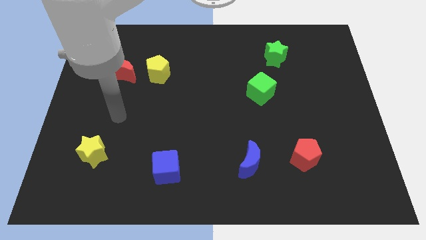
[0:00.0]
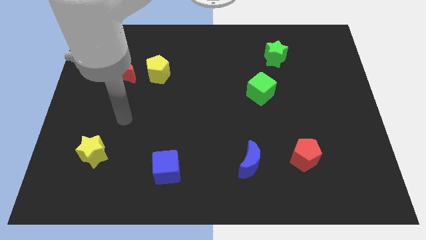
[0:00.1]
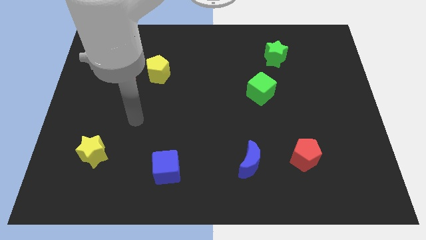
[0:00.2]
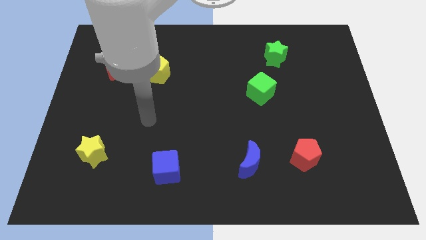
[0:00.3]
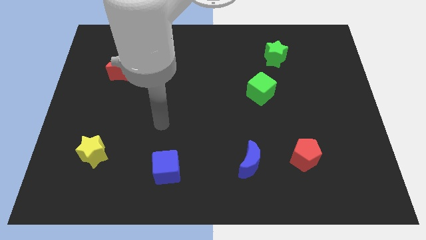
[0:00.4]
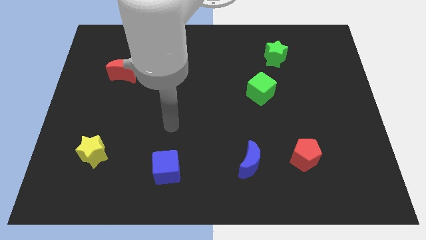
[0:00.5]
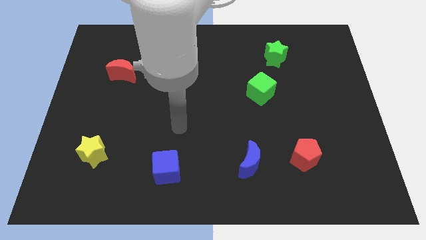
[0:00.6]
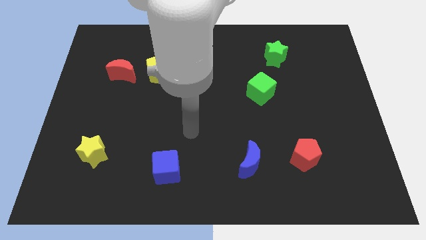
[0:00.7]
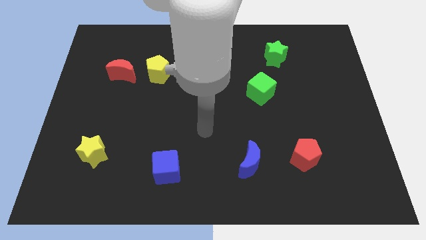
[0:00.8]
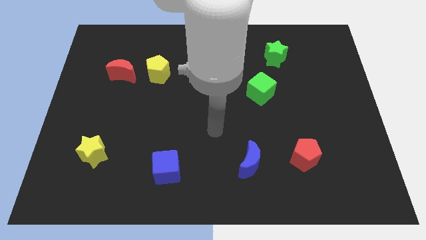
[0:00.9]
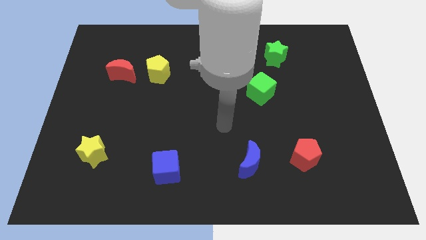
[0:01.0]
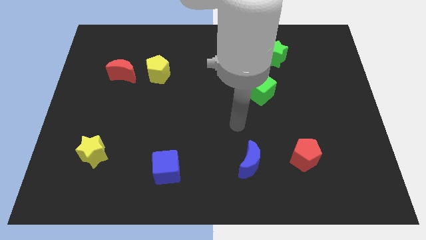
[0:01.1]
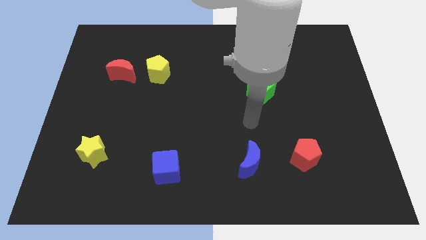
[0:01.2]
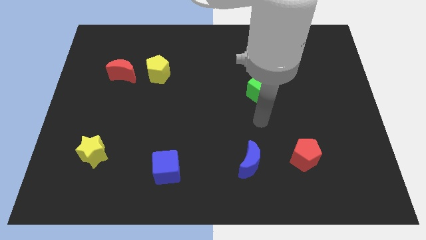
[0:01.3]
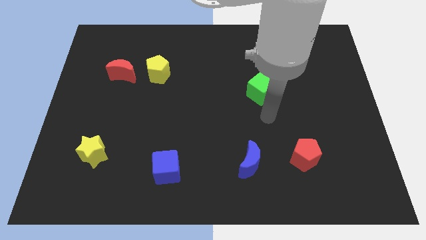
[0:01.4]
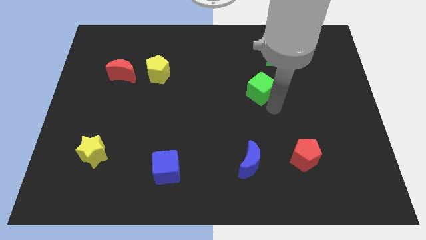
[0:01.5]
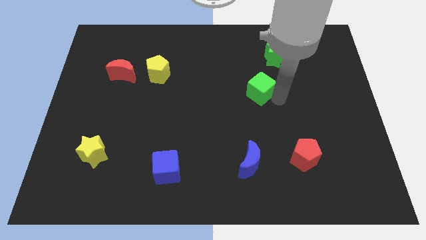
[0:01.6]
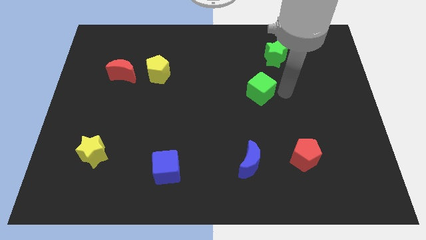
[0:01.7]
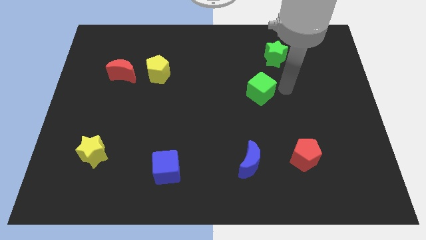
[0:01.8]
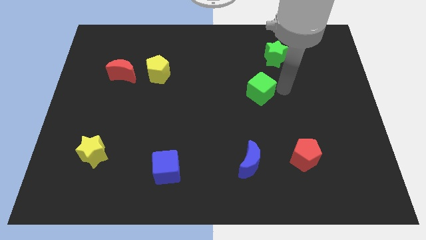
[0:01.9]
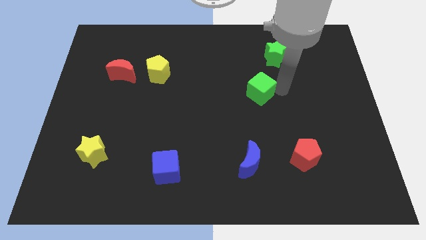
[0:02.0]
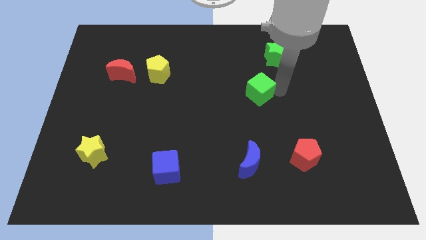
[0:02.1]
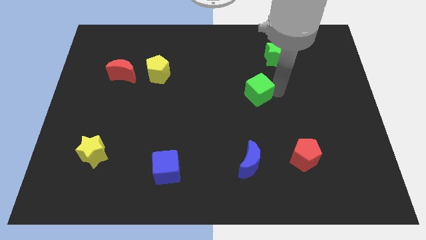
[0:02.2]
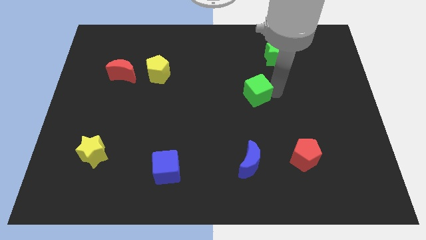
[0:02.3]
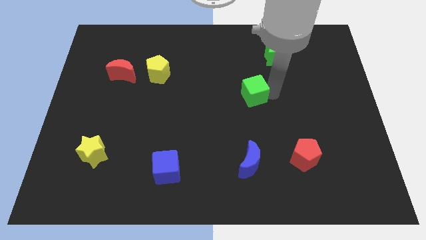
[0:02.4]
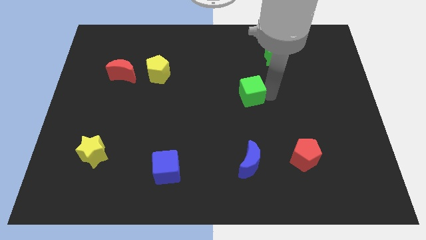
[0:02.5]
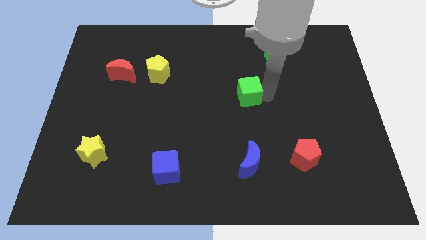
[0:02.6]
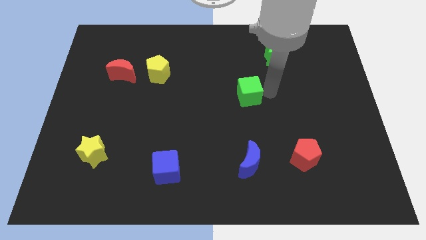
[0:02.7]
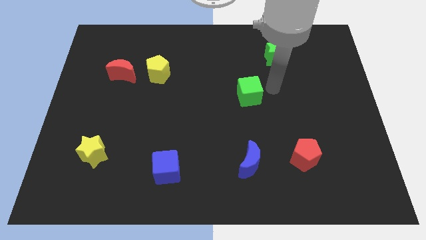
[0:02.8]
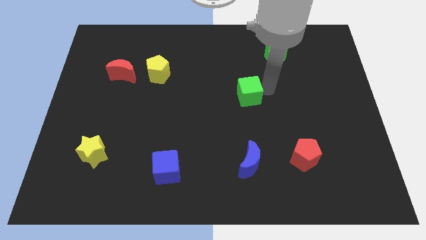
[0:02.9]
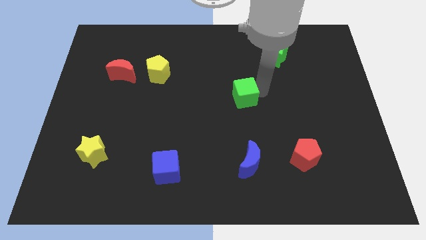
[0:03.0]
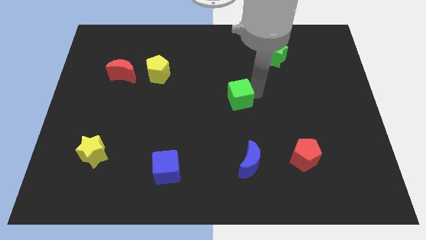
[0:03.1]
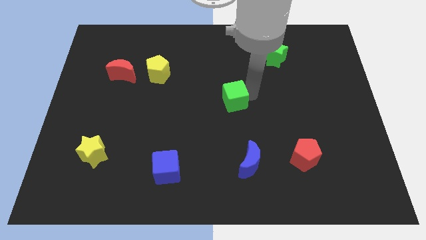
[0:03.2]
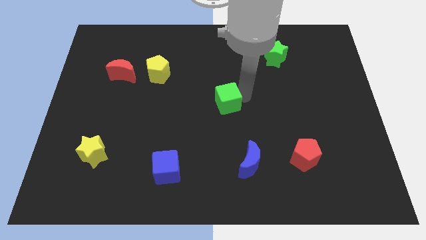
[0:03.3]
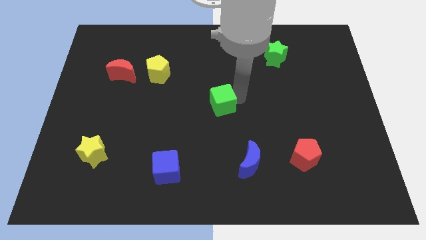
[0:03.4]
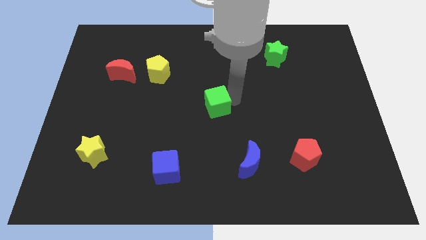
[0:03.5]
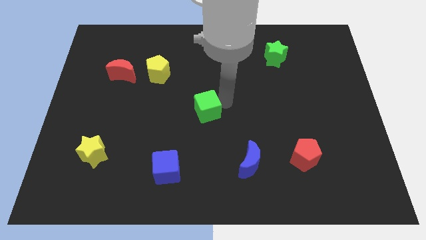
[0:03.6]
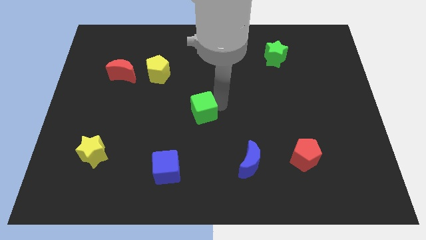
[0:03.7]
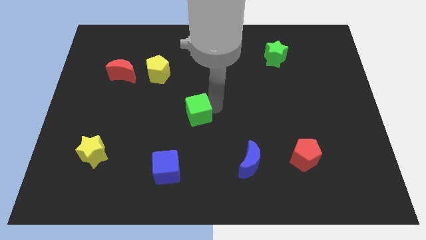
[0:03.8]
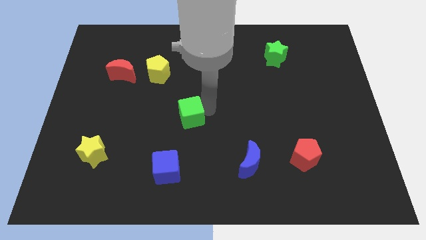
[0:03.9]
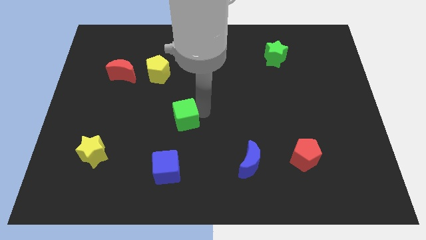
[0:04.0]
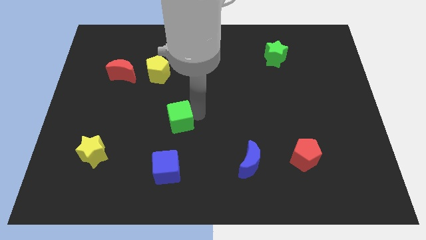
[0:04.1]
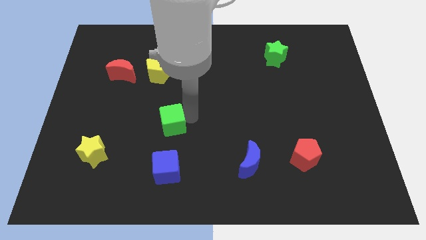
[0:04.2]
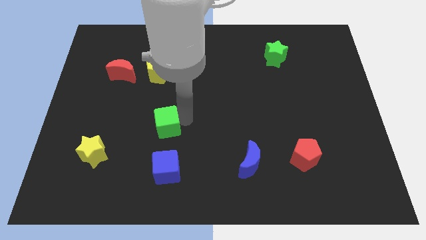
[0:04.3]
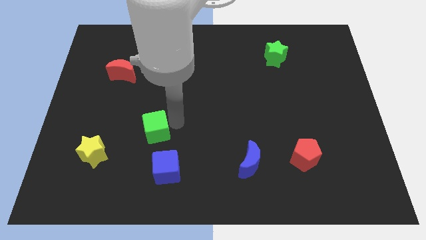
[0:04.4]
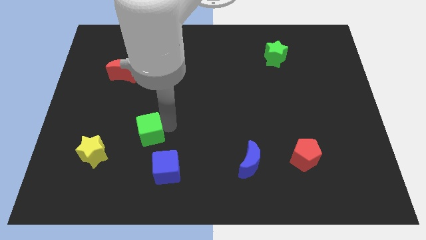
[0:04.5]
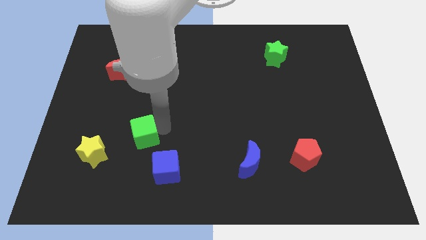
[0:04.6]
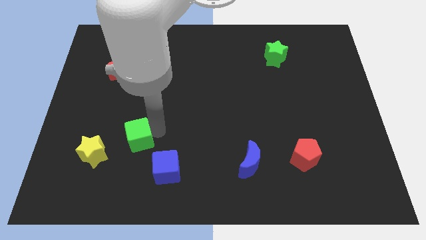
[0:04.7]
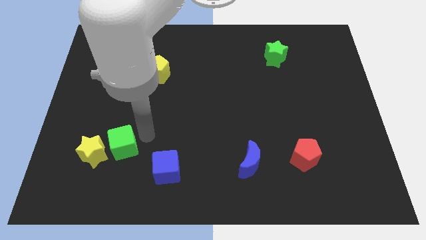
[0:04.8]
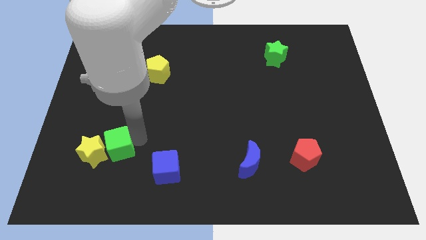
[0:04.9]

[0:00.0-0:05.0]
push the green cube to the yellow star

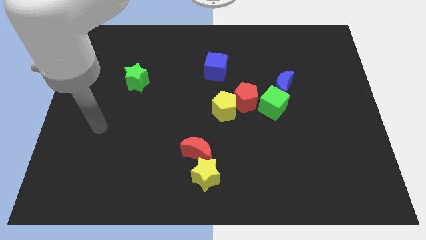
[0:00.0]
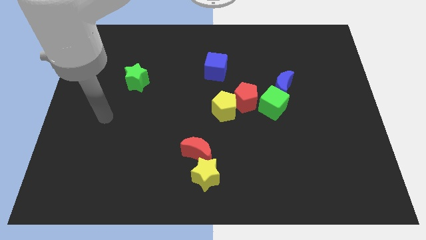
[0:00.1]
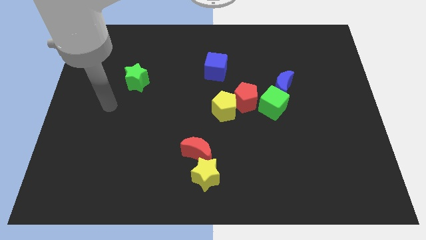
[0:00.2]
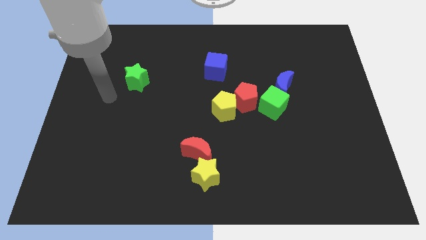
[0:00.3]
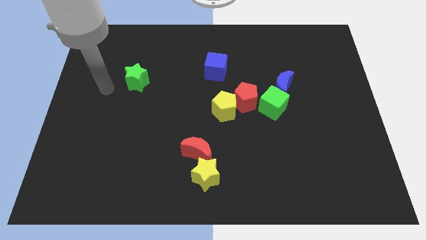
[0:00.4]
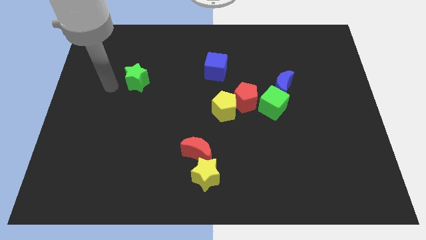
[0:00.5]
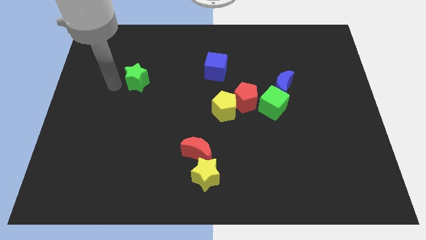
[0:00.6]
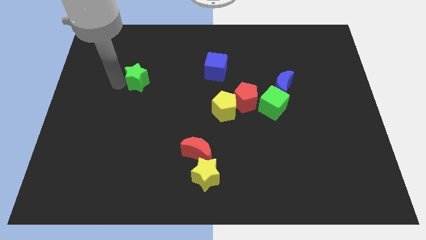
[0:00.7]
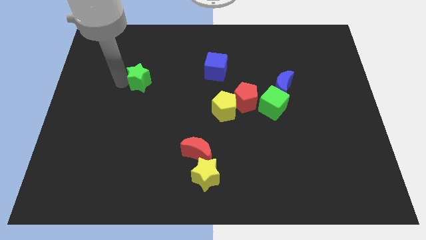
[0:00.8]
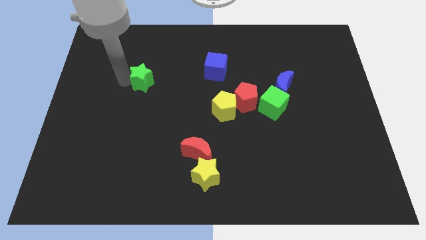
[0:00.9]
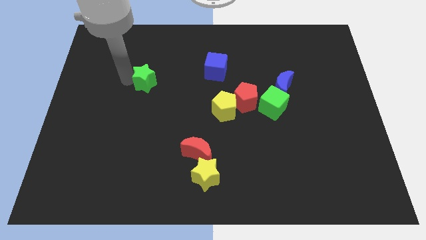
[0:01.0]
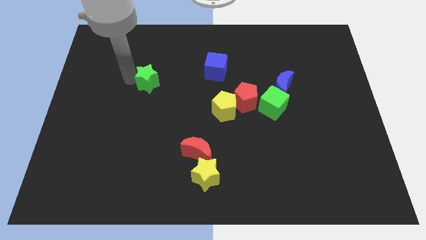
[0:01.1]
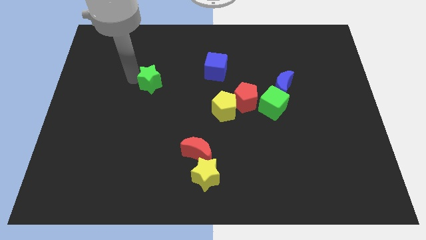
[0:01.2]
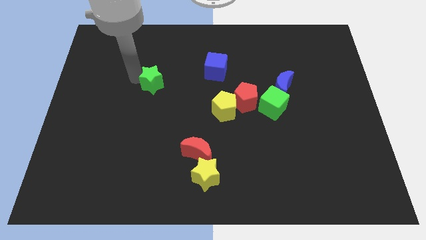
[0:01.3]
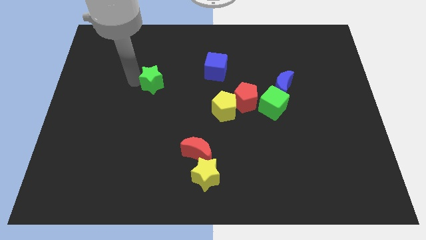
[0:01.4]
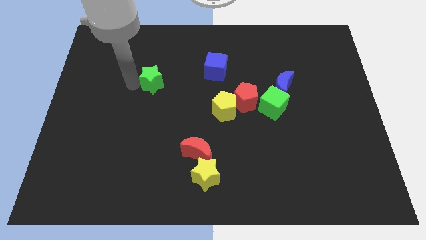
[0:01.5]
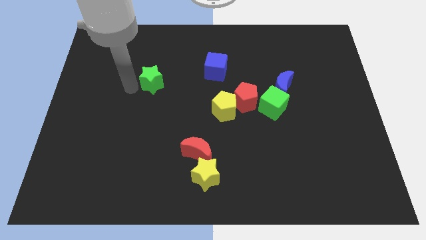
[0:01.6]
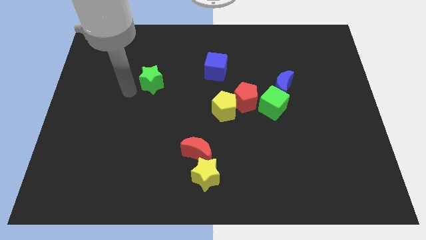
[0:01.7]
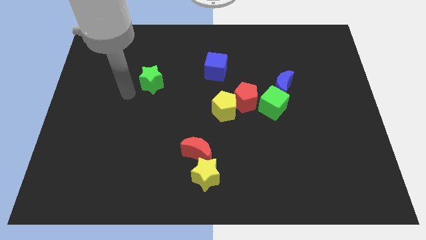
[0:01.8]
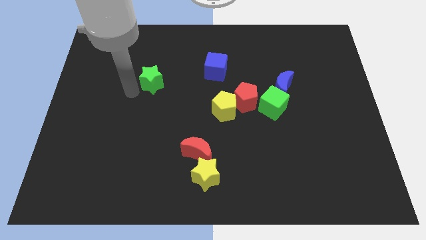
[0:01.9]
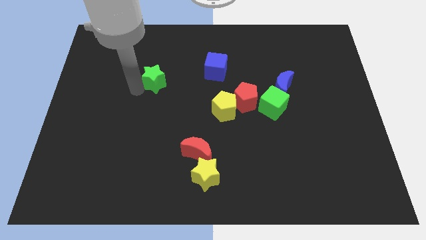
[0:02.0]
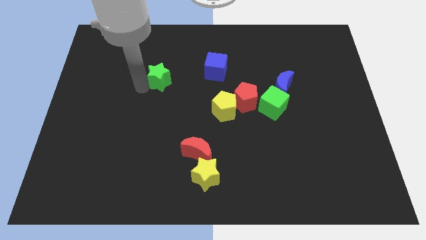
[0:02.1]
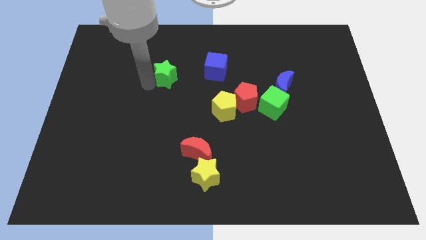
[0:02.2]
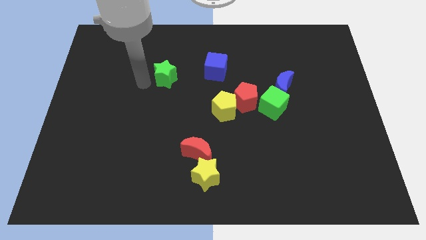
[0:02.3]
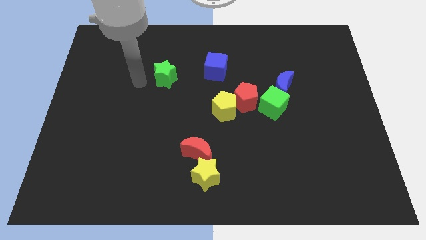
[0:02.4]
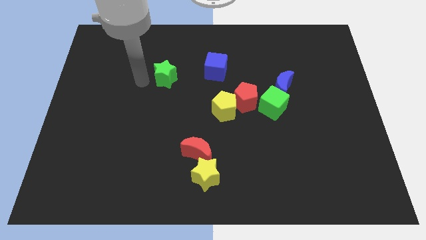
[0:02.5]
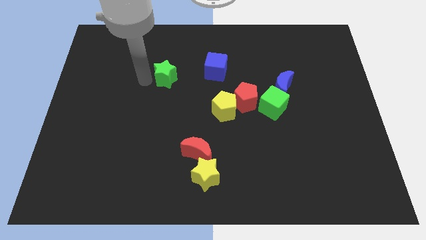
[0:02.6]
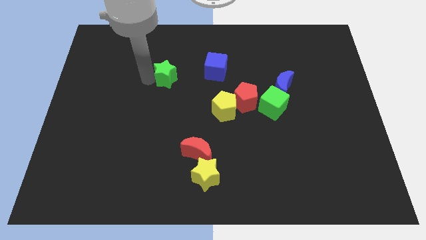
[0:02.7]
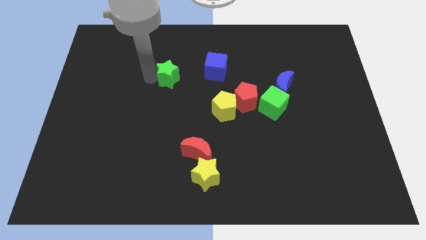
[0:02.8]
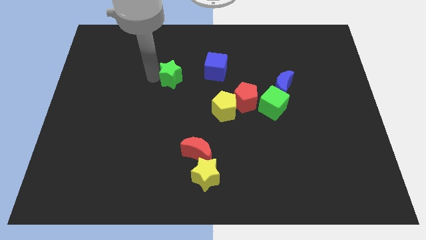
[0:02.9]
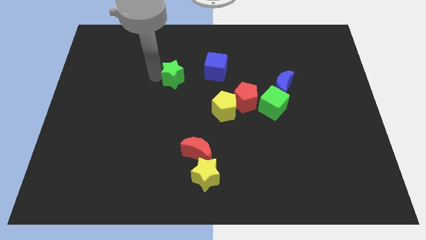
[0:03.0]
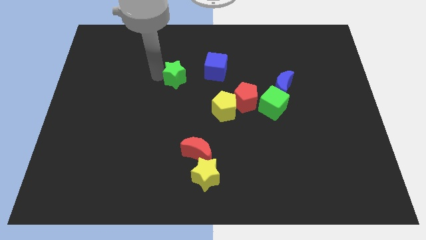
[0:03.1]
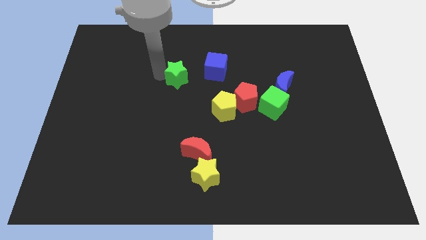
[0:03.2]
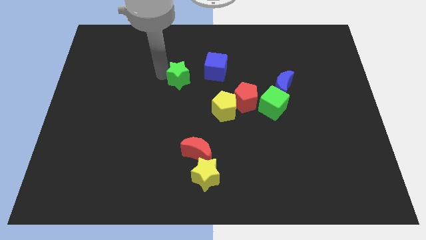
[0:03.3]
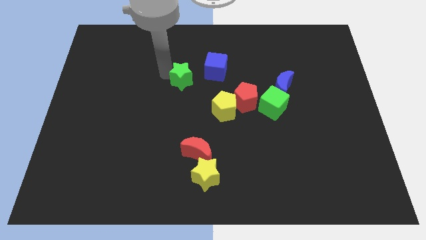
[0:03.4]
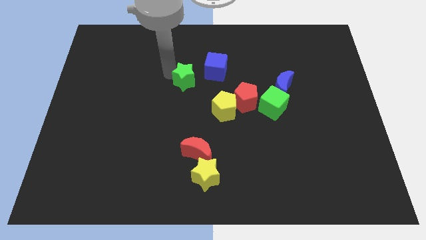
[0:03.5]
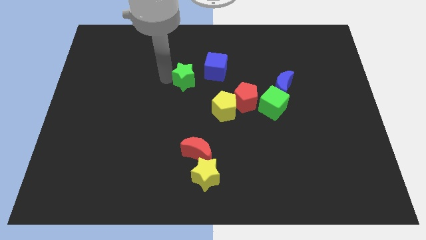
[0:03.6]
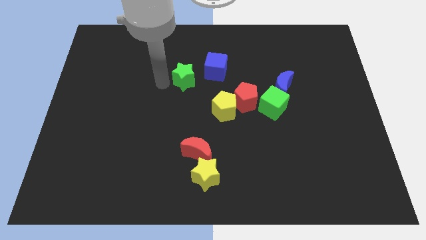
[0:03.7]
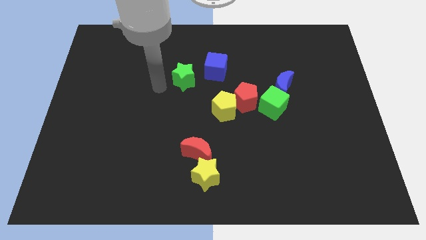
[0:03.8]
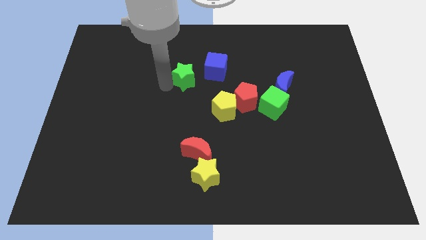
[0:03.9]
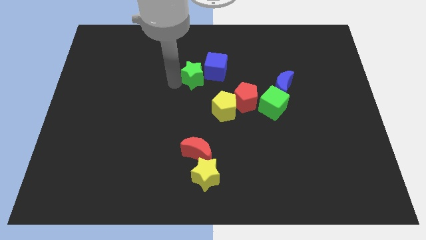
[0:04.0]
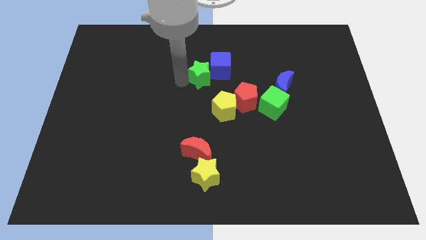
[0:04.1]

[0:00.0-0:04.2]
push the green star towards the blue cube
